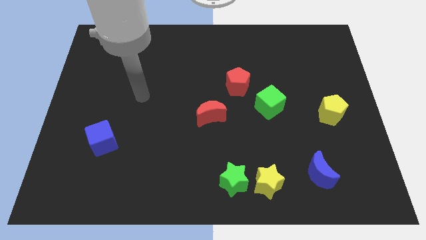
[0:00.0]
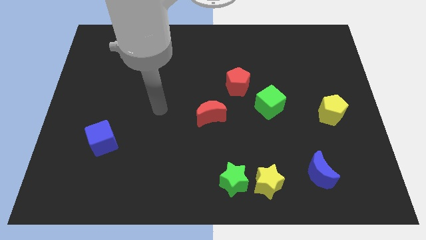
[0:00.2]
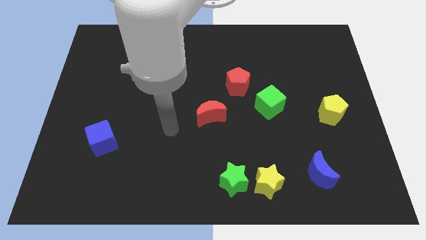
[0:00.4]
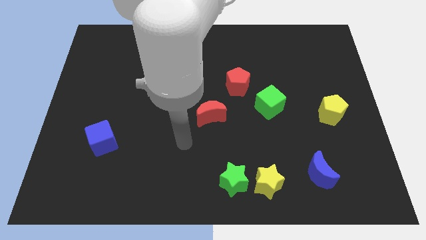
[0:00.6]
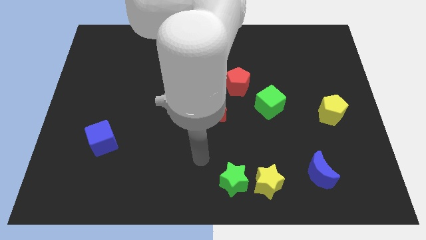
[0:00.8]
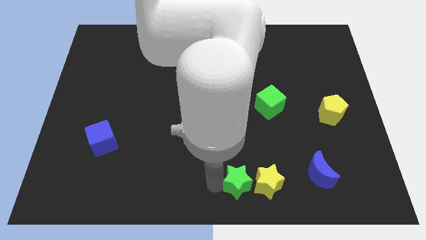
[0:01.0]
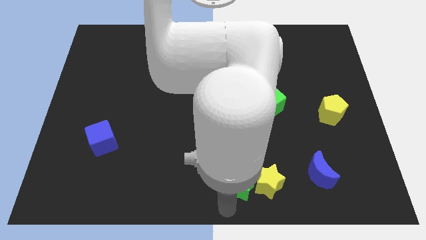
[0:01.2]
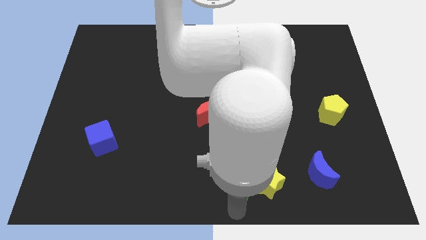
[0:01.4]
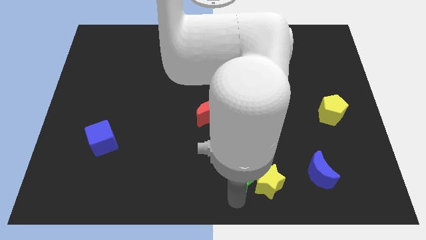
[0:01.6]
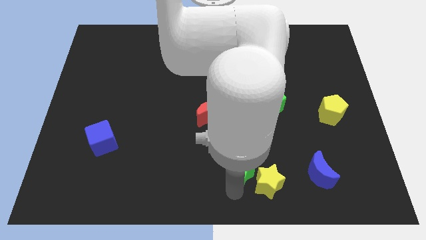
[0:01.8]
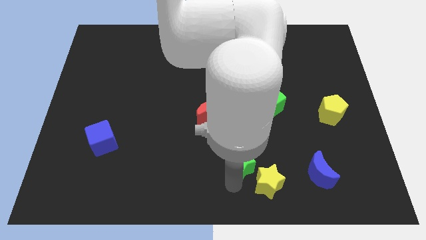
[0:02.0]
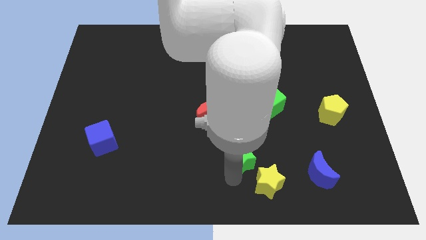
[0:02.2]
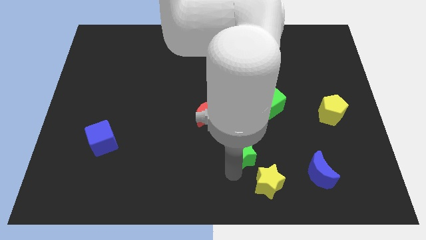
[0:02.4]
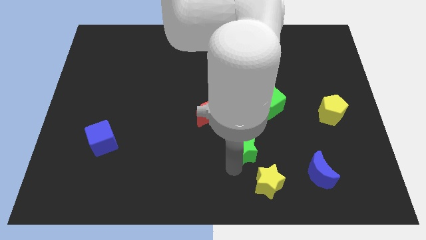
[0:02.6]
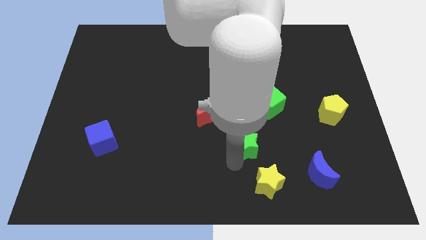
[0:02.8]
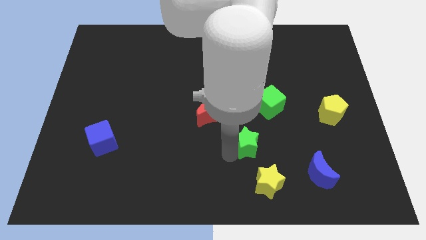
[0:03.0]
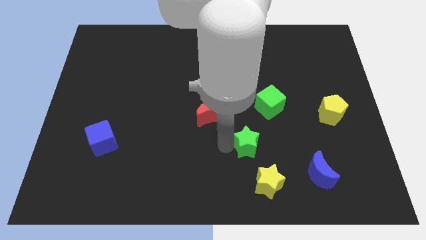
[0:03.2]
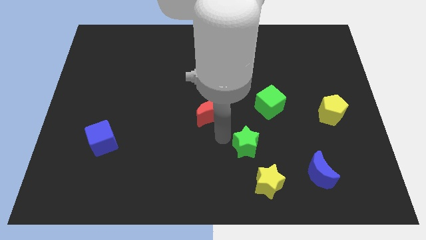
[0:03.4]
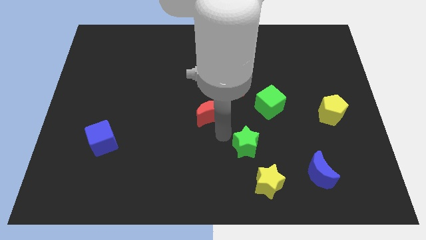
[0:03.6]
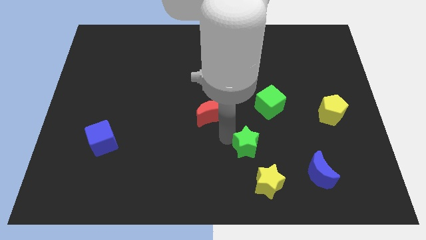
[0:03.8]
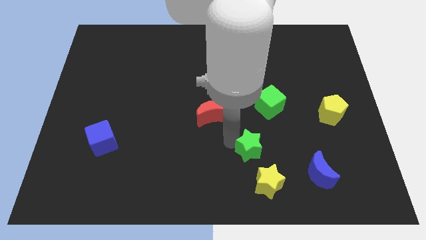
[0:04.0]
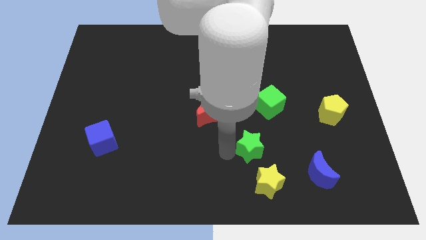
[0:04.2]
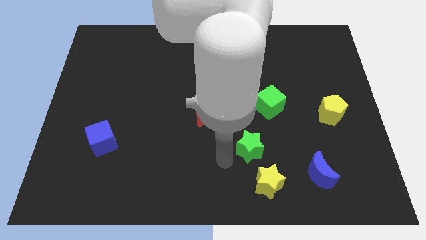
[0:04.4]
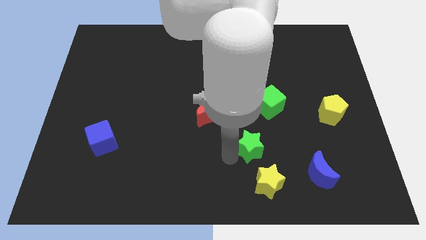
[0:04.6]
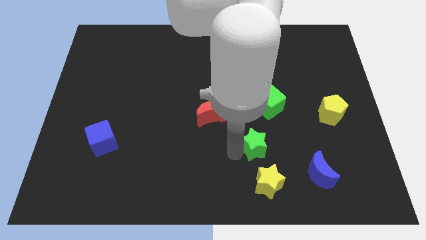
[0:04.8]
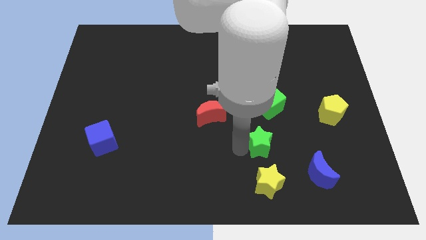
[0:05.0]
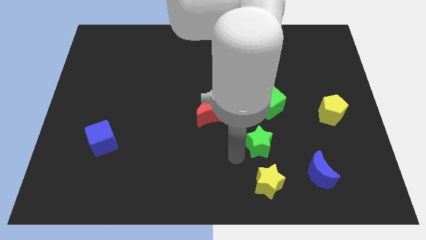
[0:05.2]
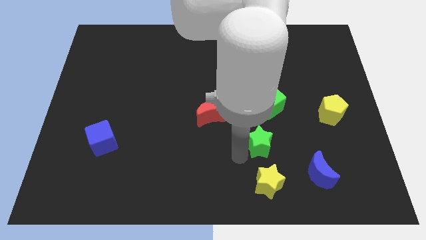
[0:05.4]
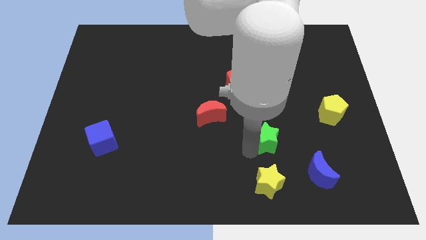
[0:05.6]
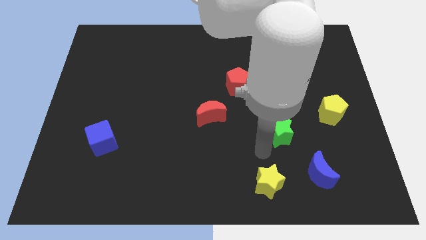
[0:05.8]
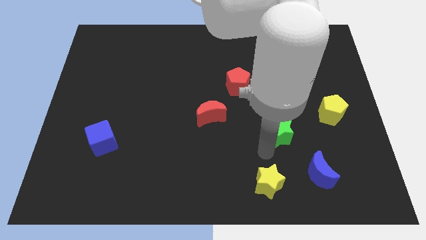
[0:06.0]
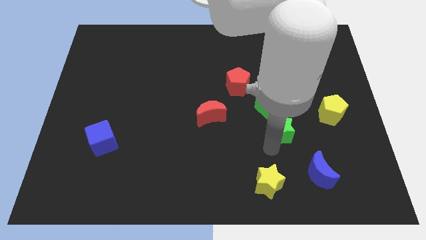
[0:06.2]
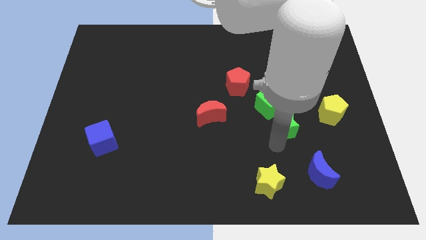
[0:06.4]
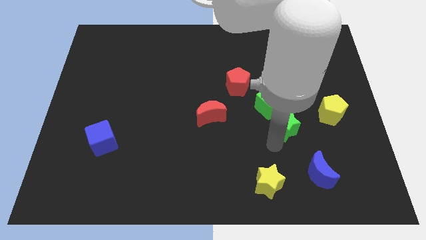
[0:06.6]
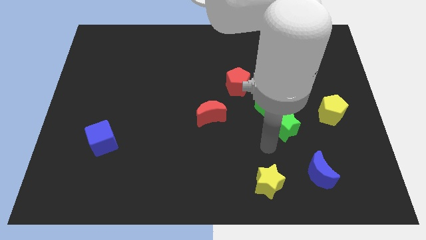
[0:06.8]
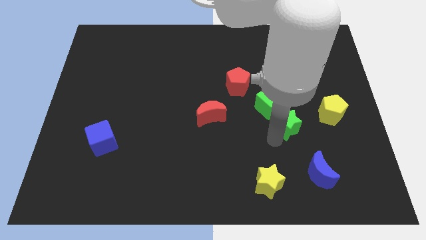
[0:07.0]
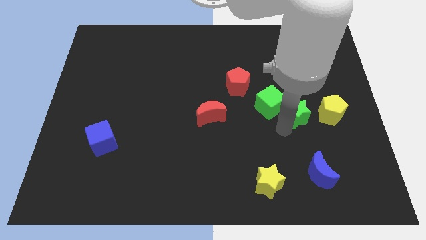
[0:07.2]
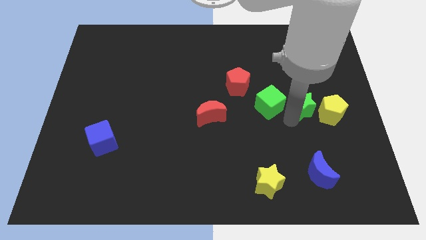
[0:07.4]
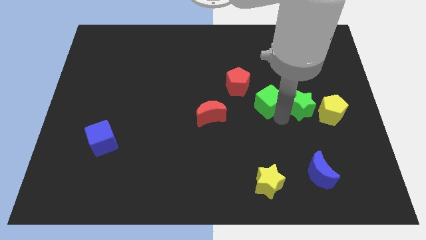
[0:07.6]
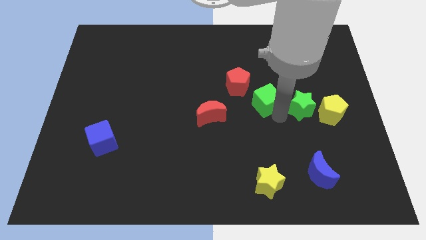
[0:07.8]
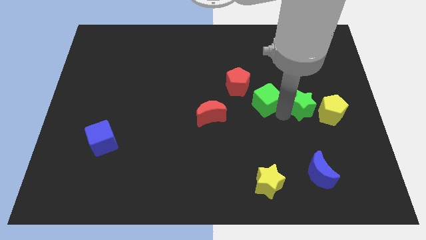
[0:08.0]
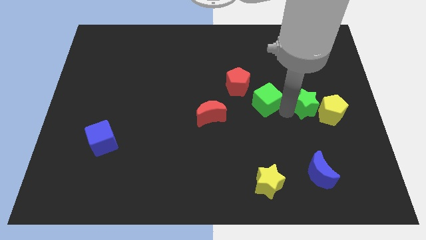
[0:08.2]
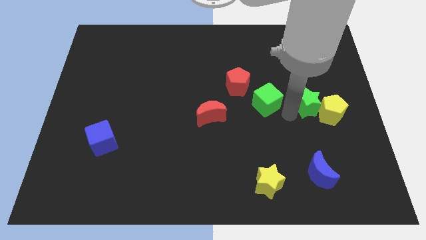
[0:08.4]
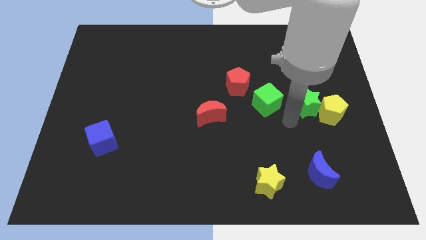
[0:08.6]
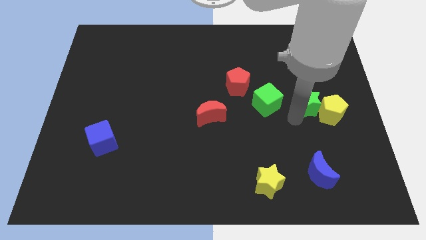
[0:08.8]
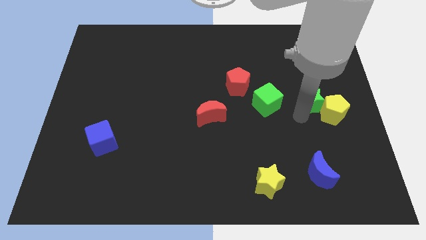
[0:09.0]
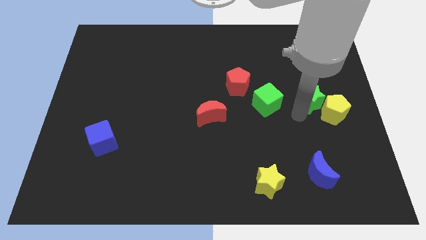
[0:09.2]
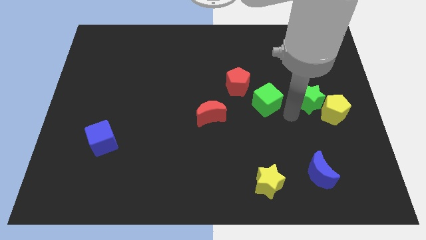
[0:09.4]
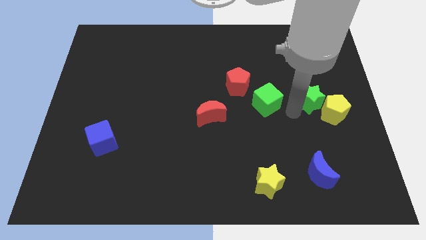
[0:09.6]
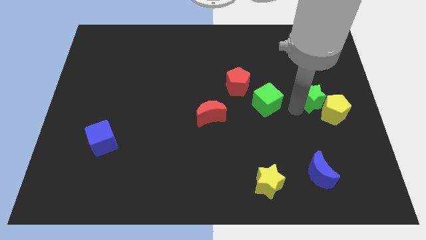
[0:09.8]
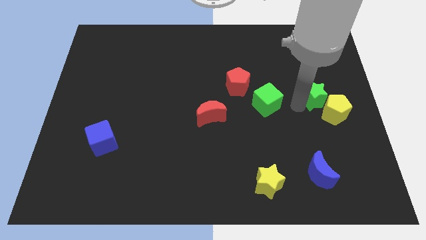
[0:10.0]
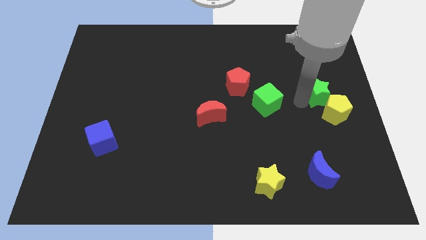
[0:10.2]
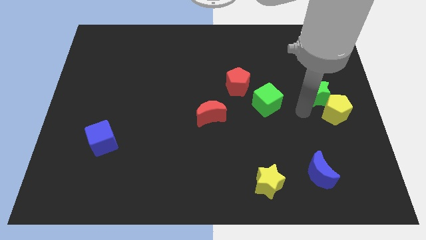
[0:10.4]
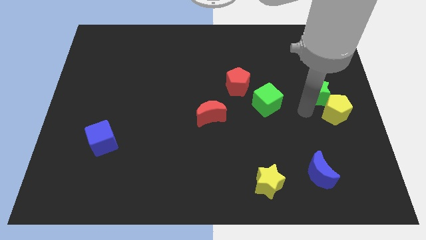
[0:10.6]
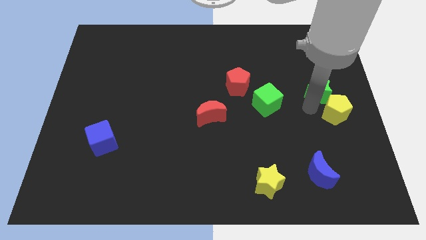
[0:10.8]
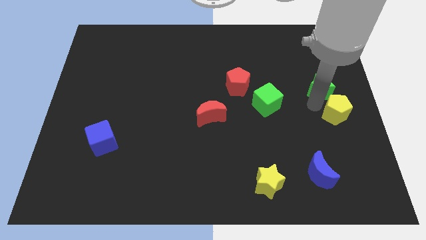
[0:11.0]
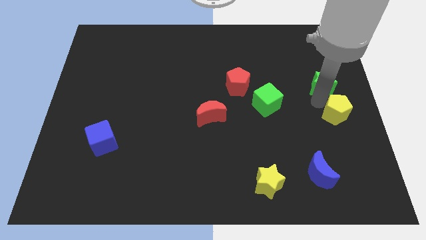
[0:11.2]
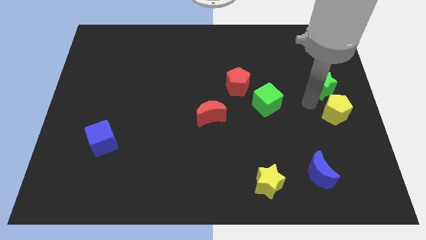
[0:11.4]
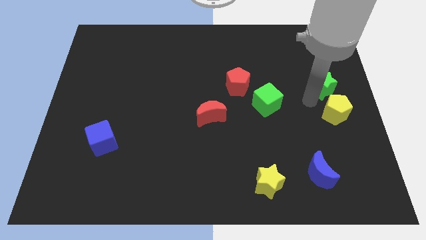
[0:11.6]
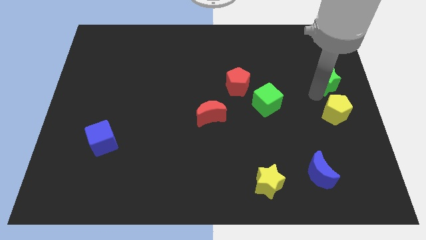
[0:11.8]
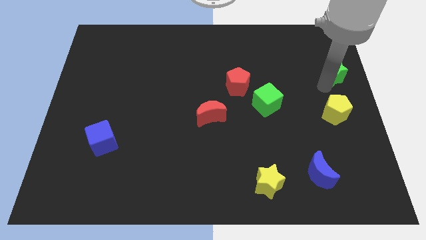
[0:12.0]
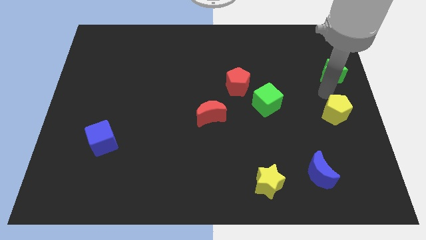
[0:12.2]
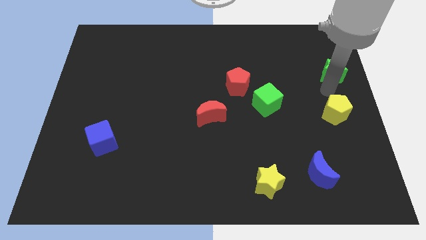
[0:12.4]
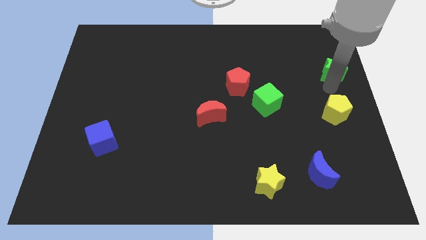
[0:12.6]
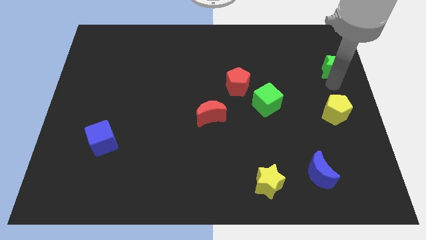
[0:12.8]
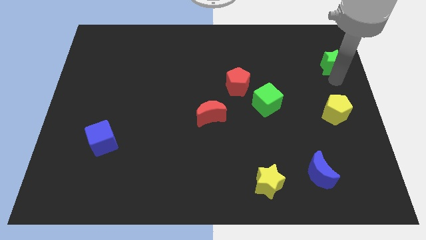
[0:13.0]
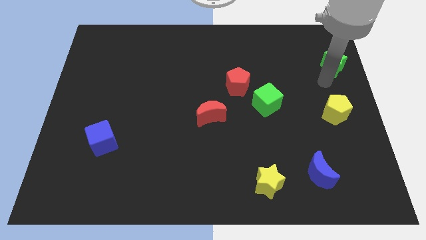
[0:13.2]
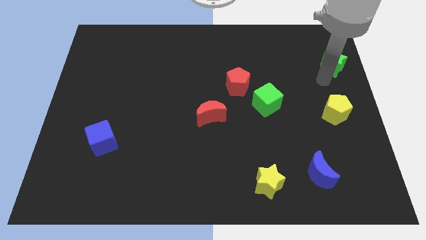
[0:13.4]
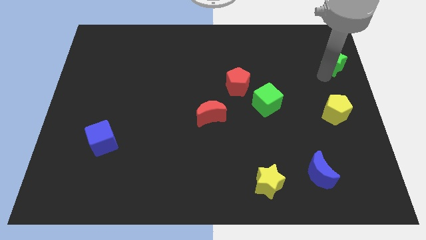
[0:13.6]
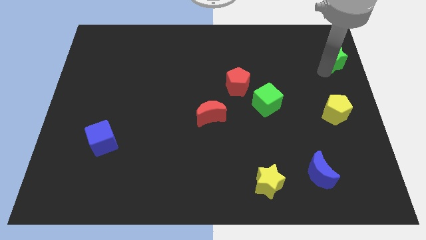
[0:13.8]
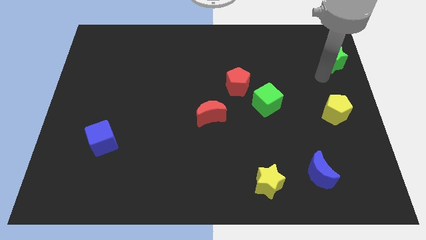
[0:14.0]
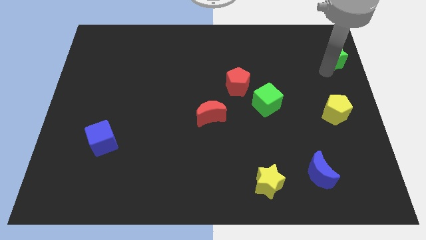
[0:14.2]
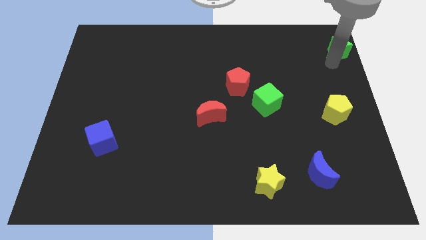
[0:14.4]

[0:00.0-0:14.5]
move the green star to the top right
